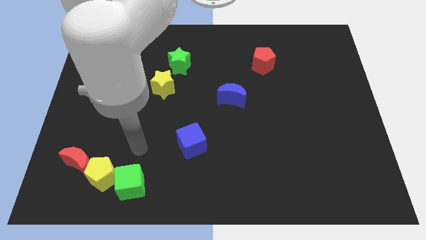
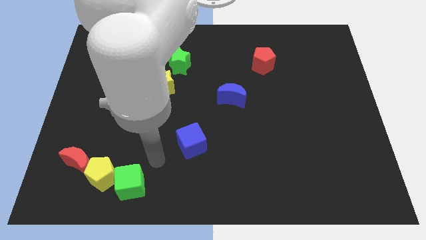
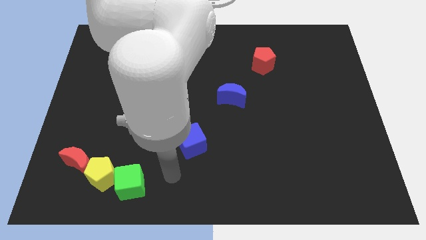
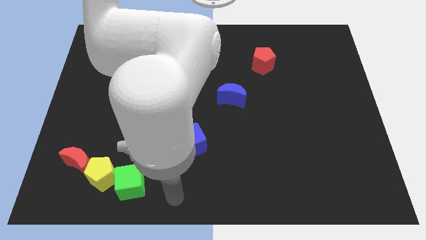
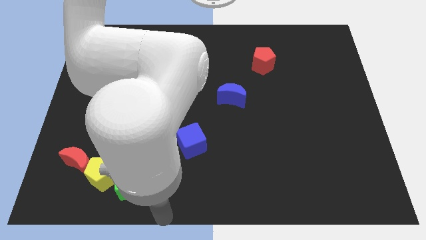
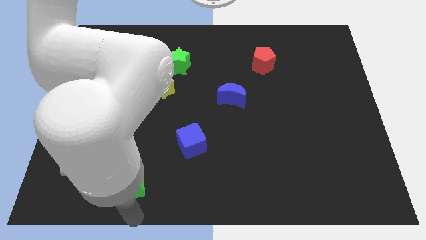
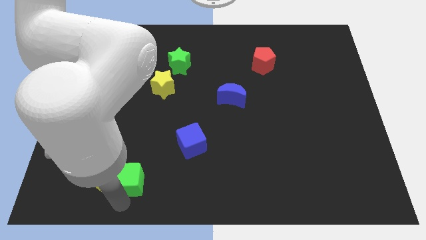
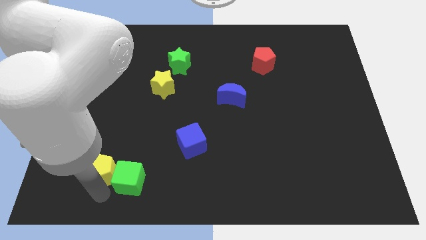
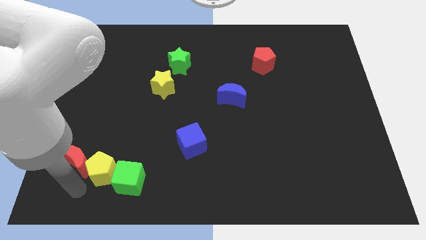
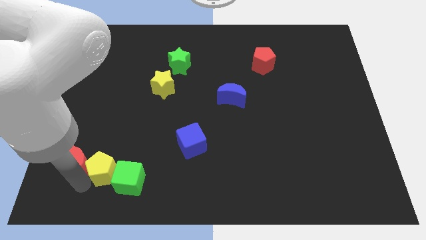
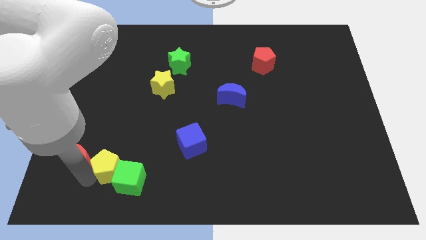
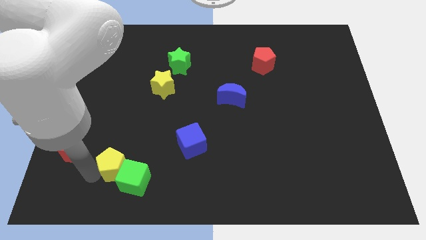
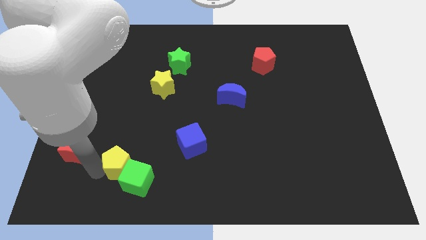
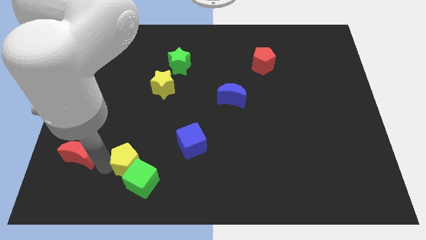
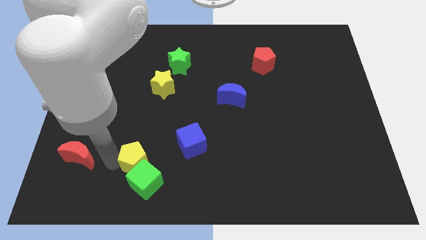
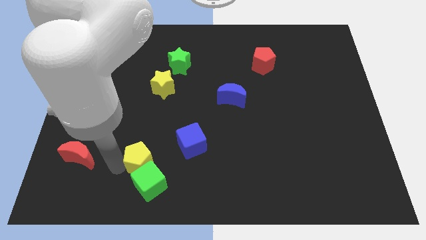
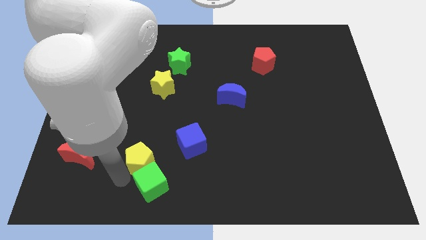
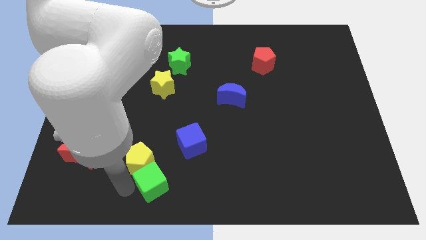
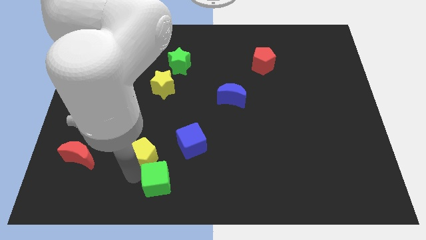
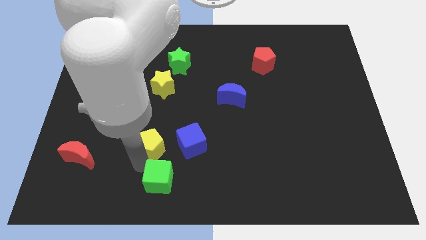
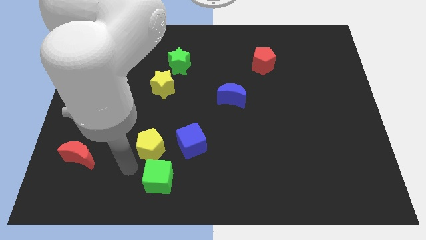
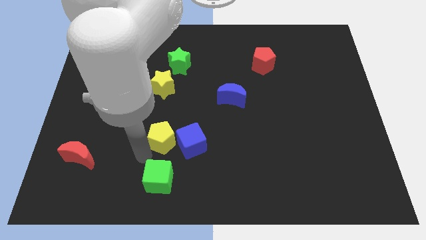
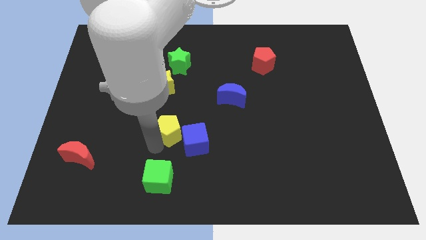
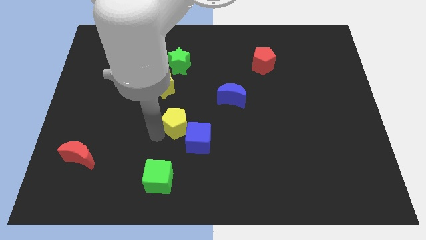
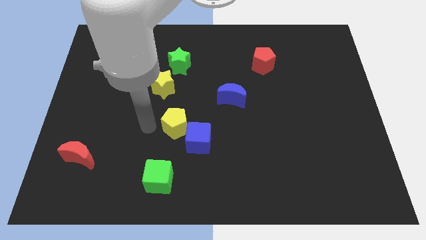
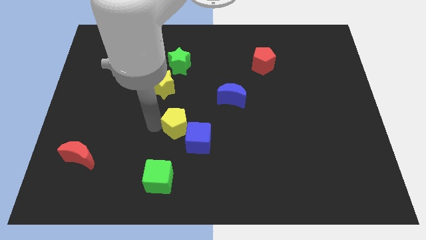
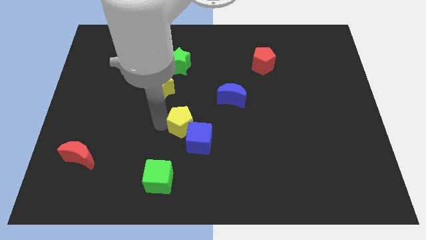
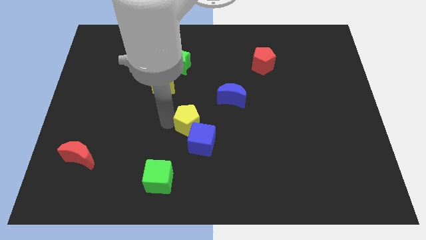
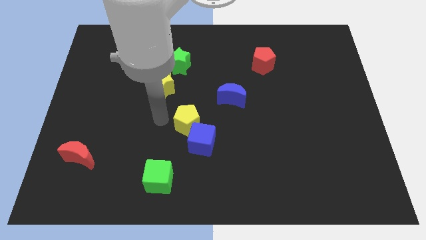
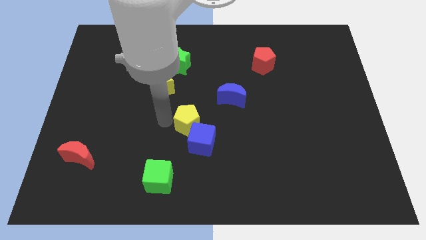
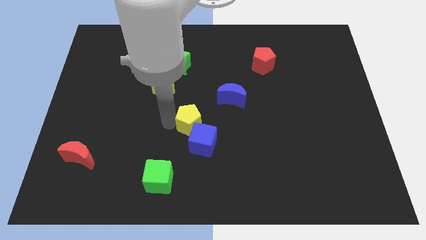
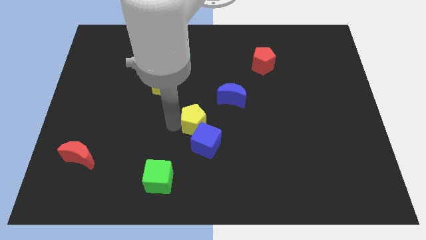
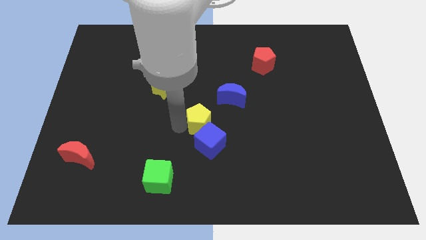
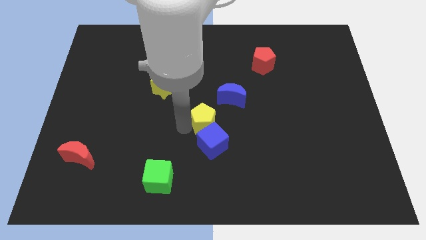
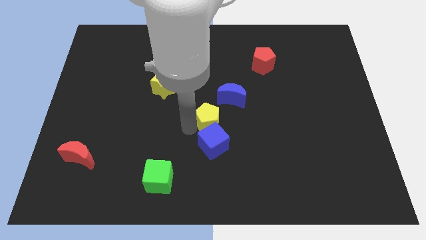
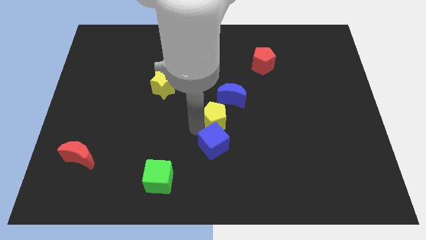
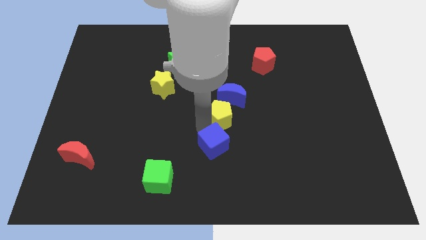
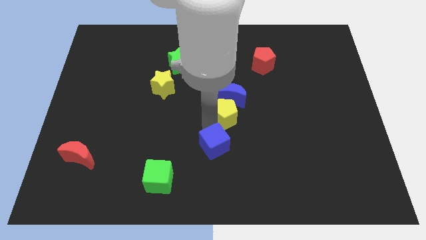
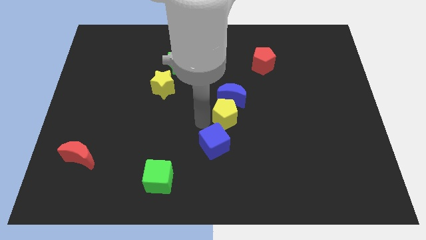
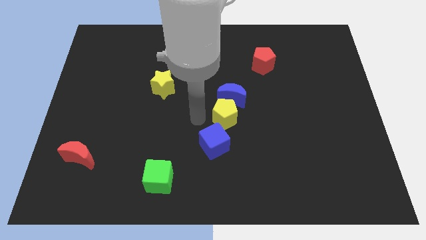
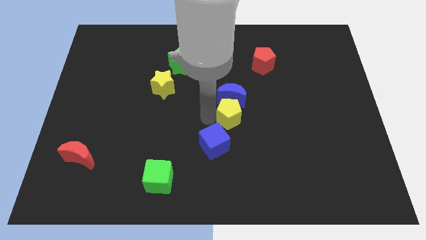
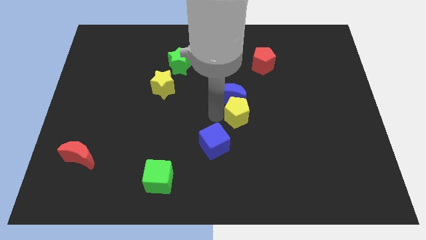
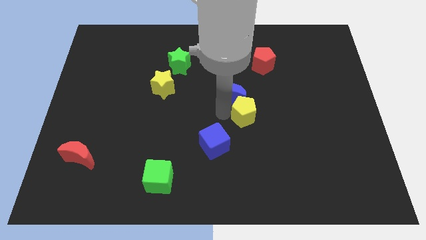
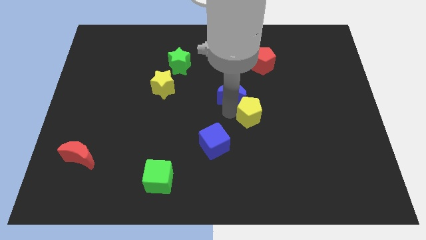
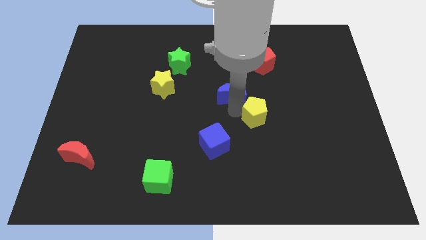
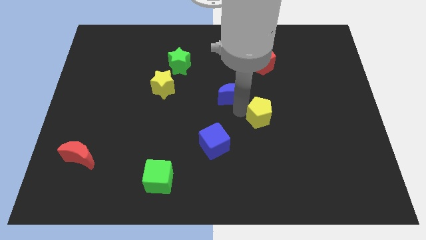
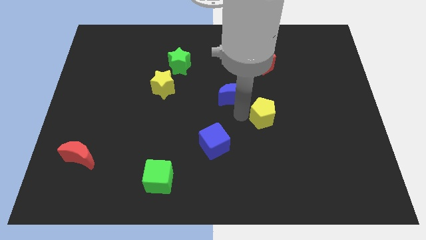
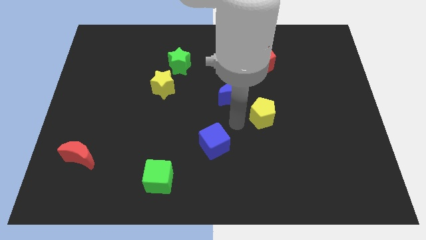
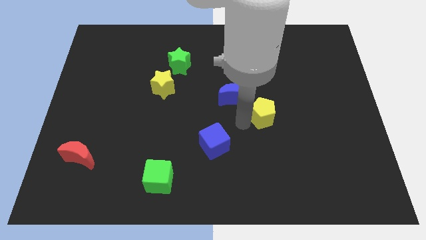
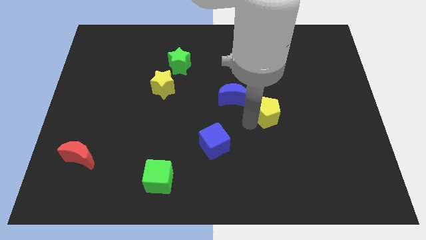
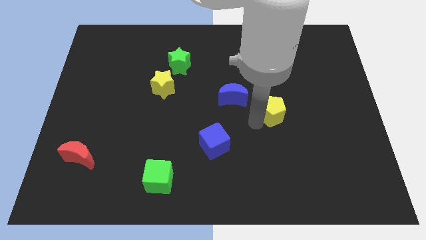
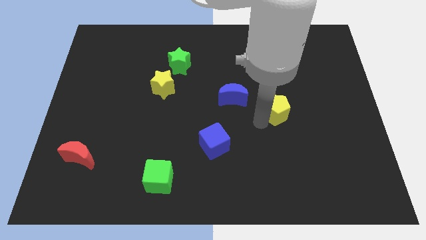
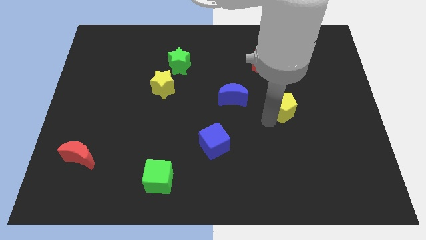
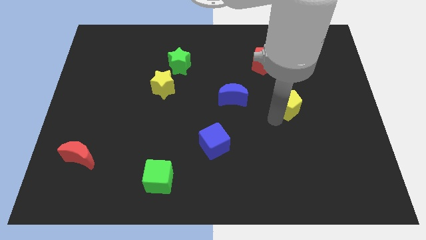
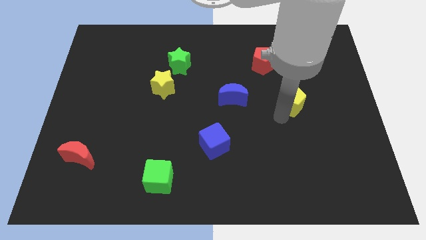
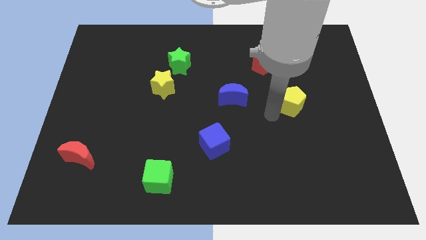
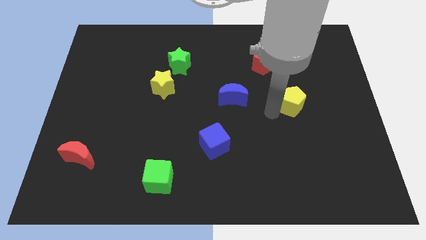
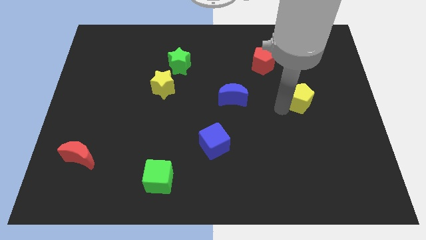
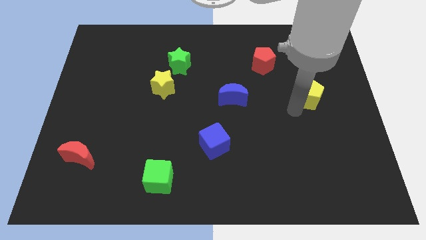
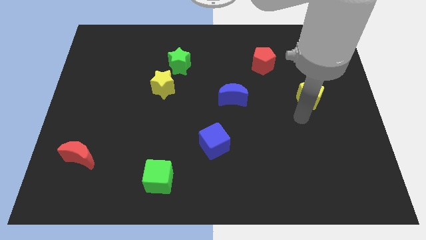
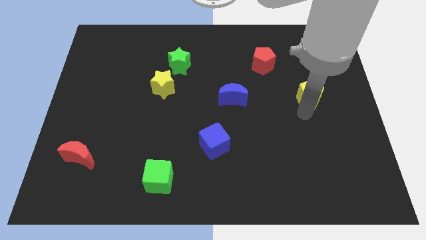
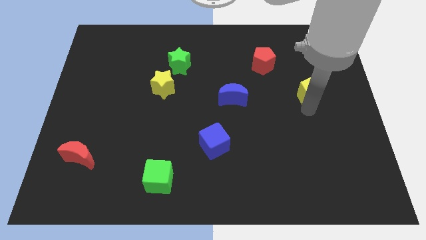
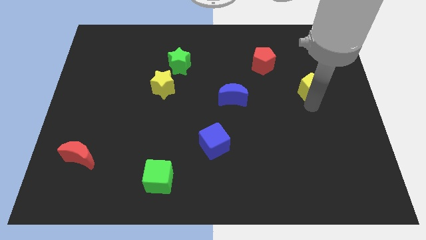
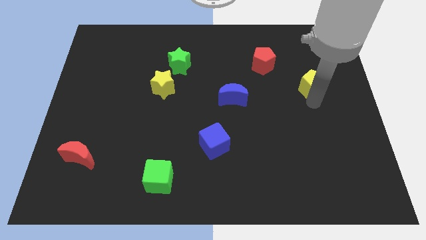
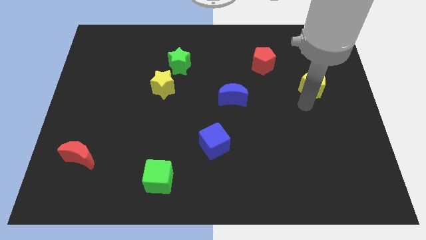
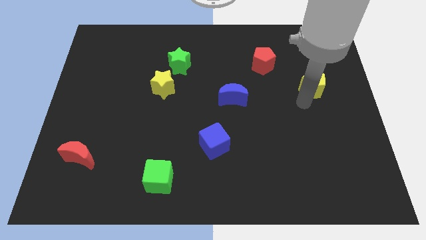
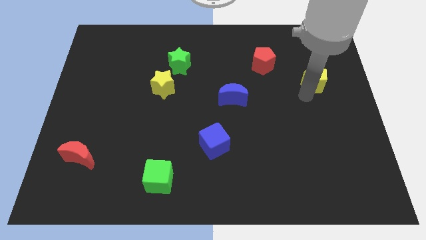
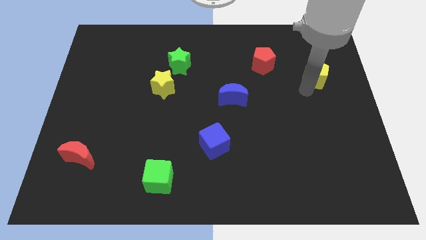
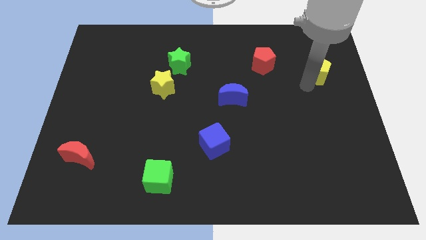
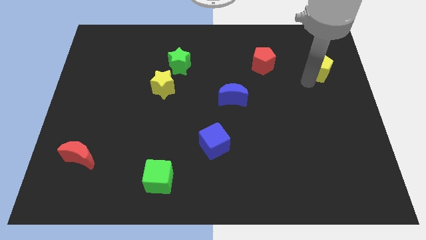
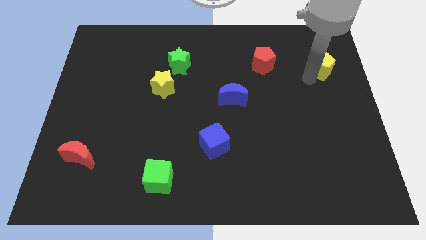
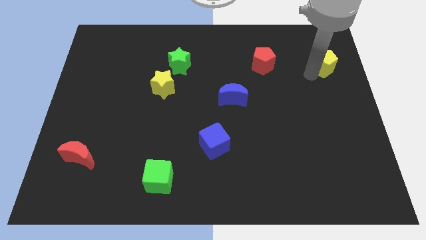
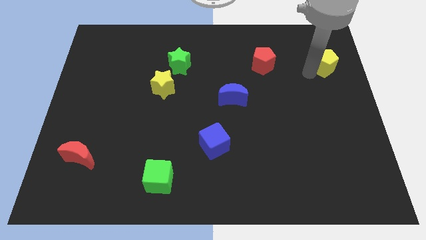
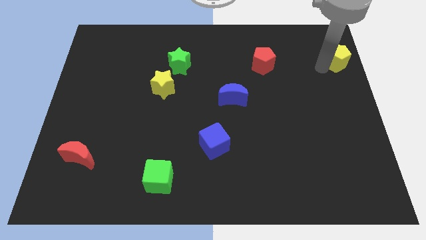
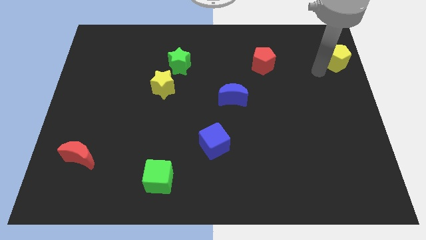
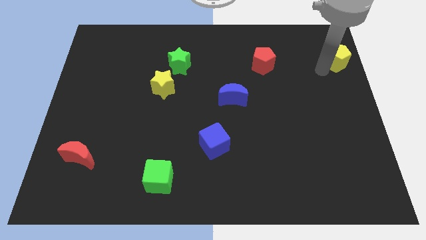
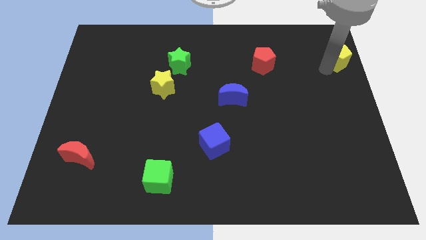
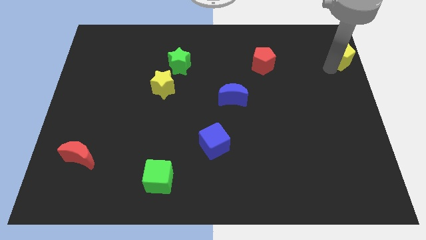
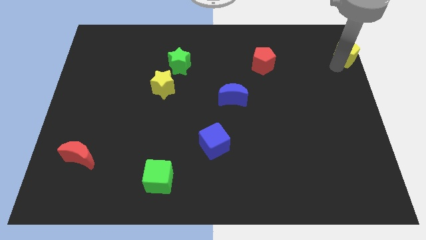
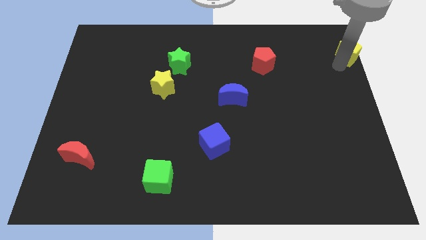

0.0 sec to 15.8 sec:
put the yellow pentagon to the top right of the board
